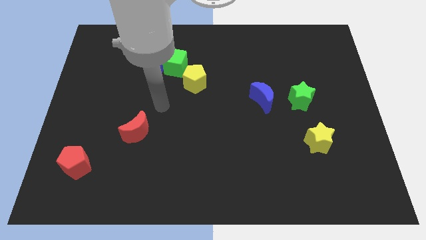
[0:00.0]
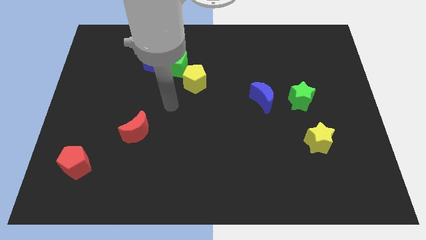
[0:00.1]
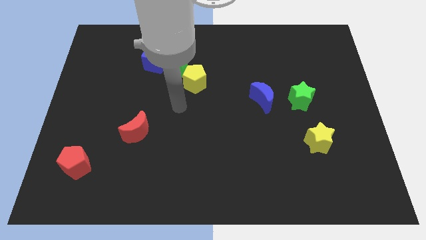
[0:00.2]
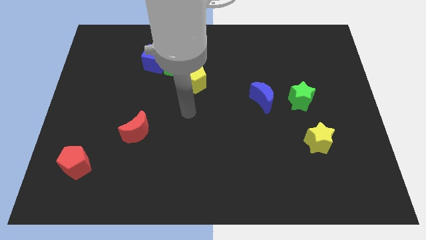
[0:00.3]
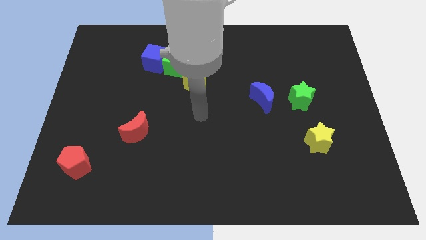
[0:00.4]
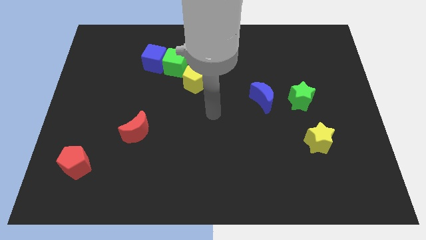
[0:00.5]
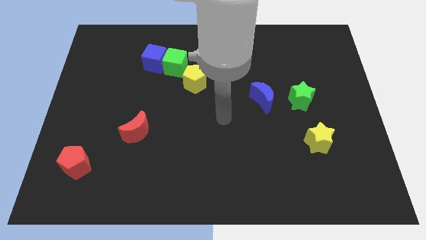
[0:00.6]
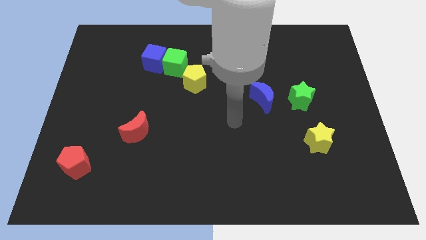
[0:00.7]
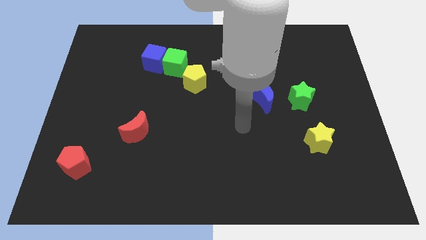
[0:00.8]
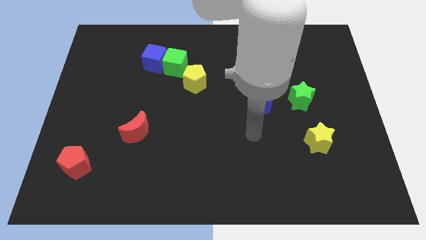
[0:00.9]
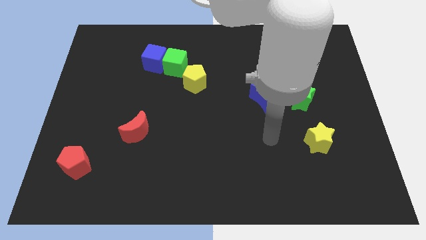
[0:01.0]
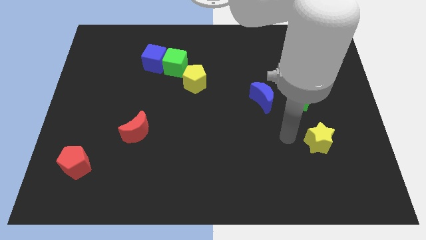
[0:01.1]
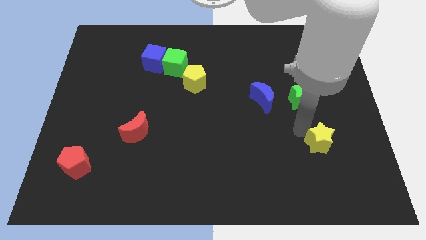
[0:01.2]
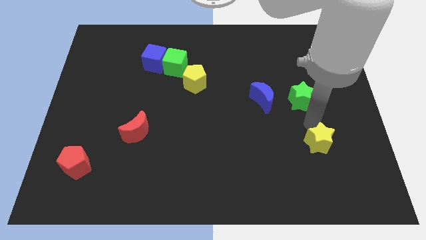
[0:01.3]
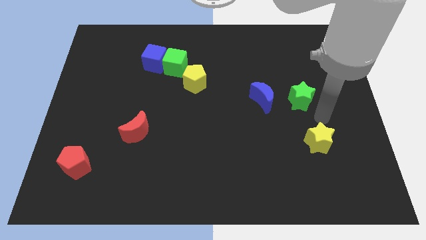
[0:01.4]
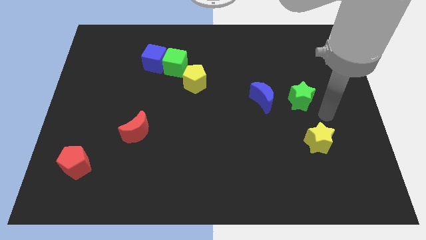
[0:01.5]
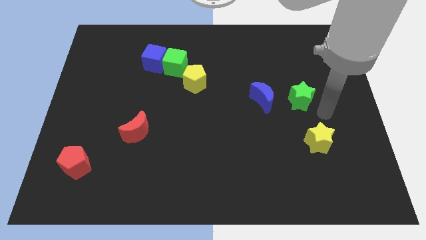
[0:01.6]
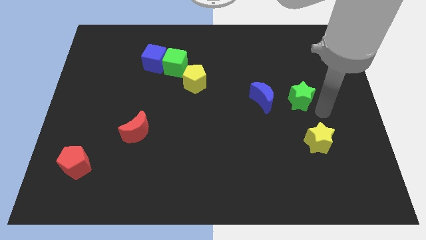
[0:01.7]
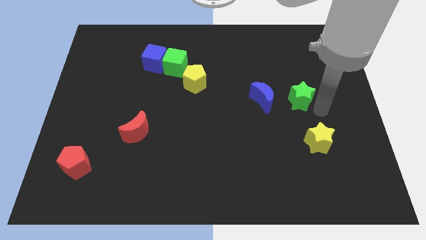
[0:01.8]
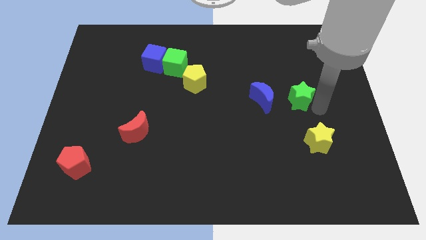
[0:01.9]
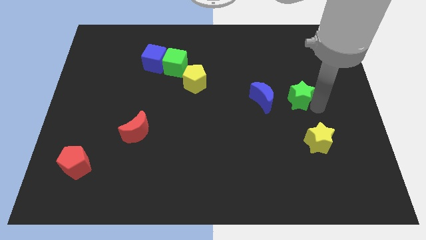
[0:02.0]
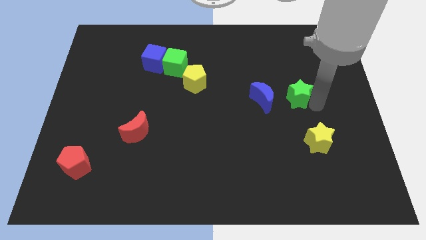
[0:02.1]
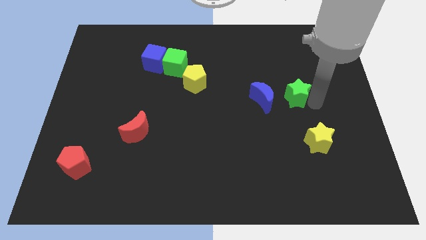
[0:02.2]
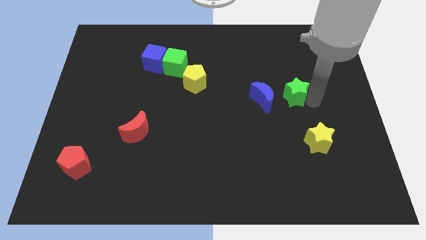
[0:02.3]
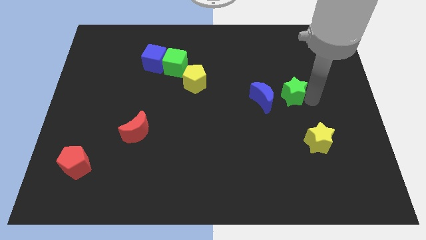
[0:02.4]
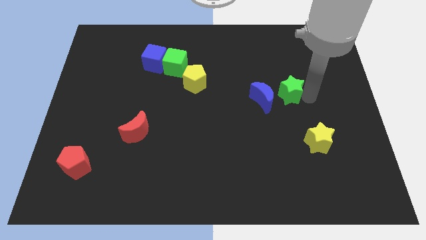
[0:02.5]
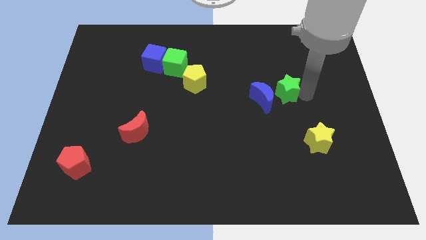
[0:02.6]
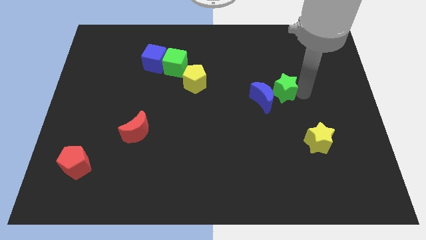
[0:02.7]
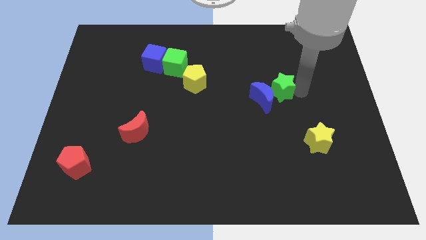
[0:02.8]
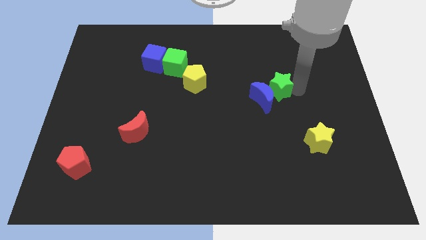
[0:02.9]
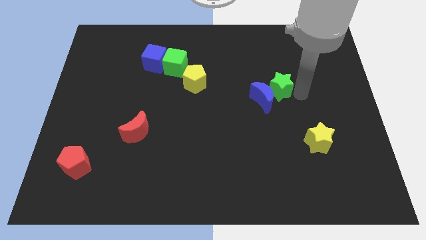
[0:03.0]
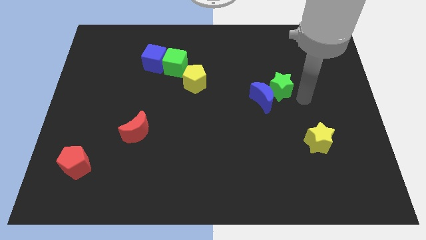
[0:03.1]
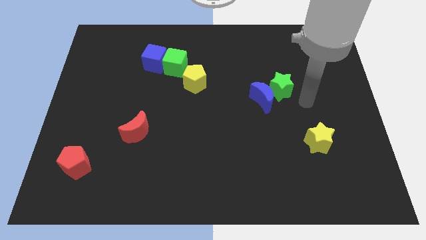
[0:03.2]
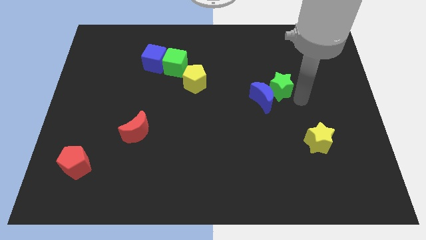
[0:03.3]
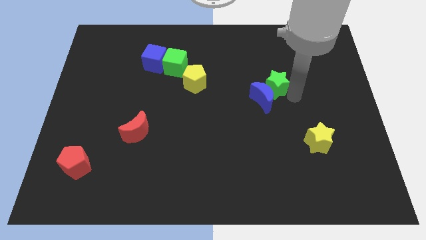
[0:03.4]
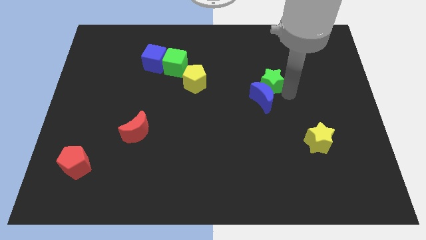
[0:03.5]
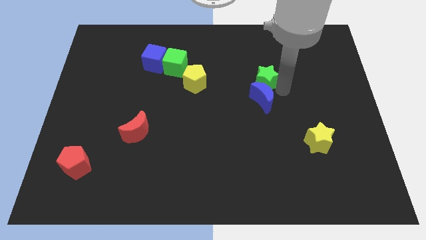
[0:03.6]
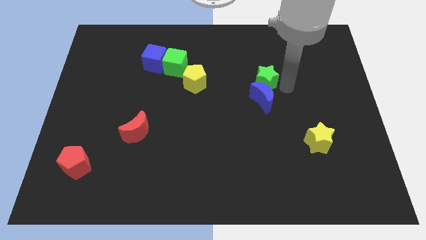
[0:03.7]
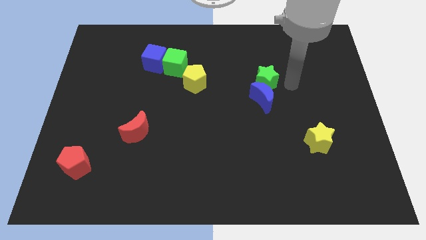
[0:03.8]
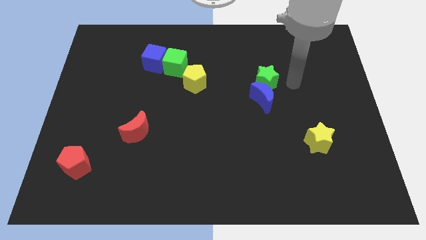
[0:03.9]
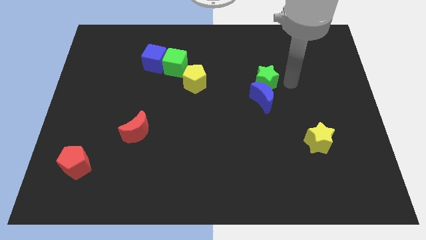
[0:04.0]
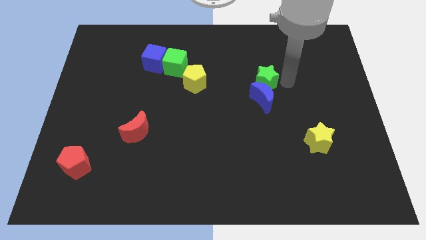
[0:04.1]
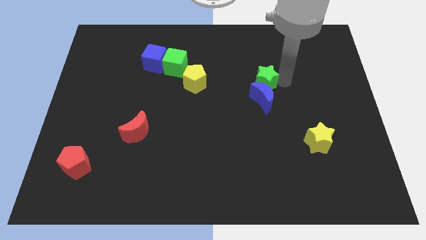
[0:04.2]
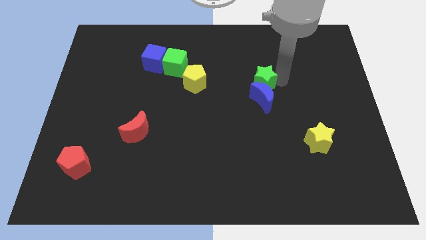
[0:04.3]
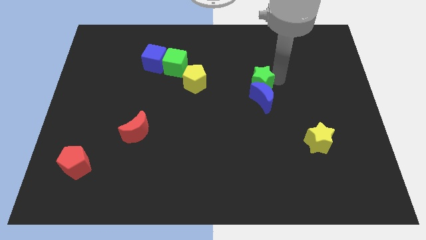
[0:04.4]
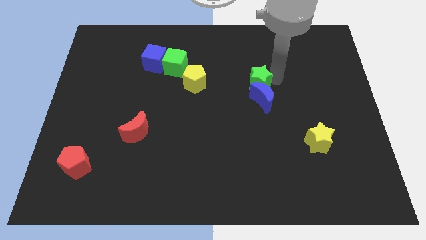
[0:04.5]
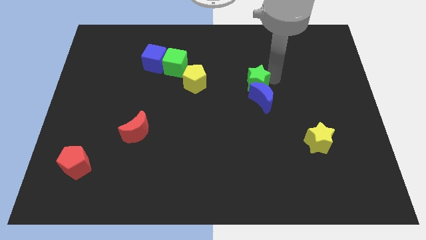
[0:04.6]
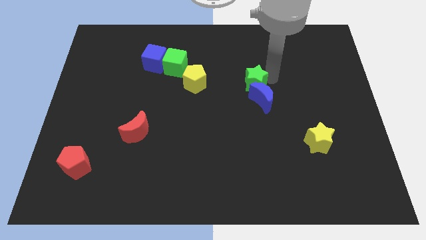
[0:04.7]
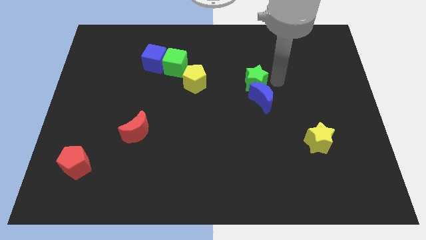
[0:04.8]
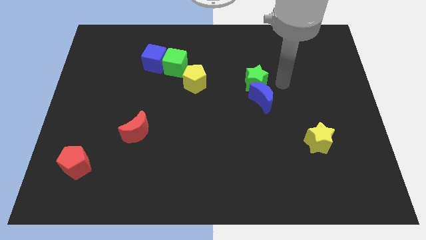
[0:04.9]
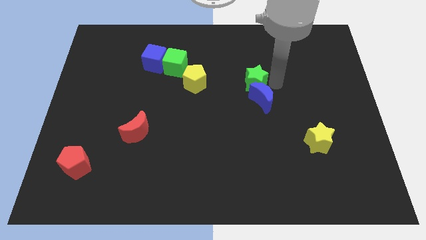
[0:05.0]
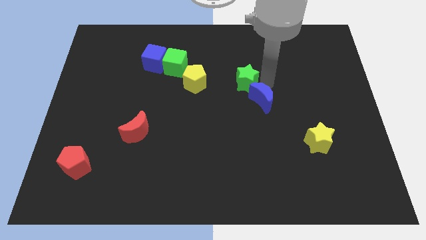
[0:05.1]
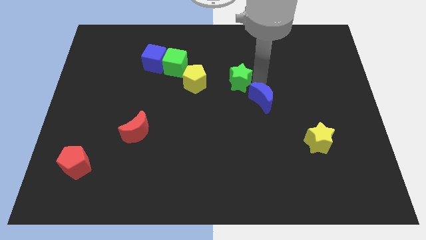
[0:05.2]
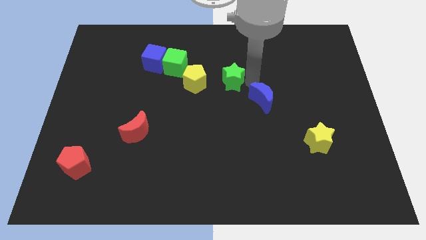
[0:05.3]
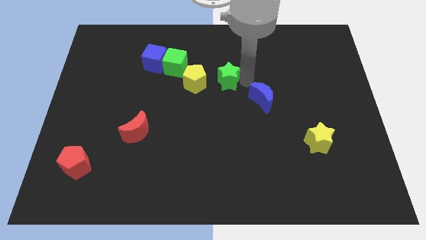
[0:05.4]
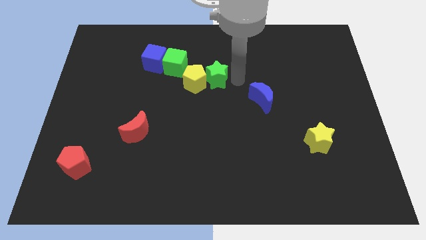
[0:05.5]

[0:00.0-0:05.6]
move the green star next to the yellow pentagon

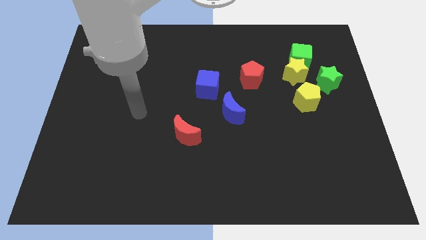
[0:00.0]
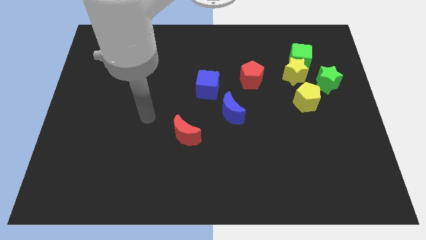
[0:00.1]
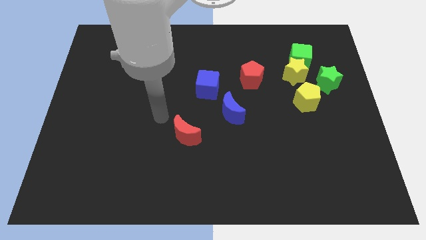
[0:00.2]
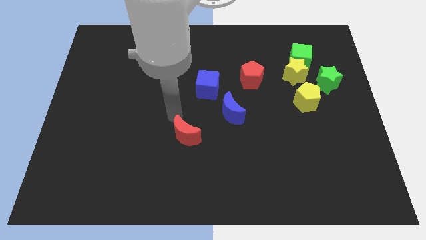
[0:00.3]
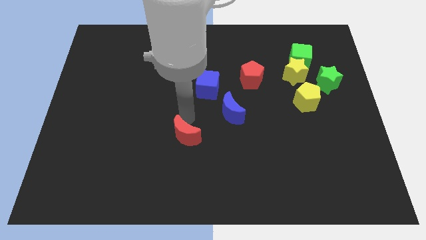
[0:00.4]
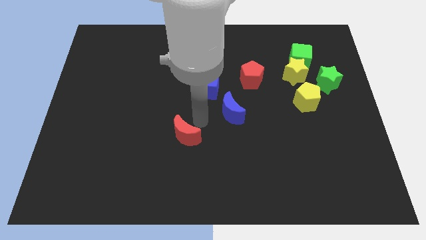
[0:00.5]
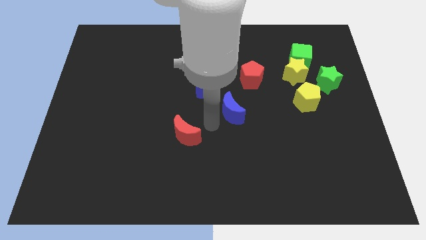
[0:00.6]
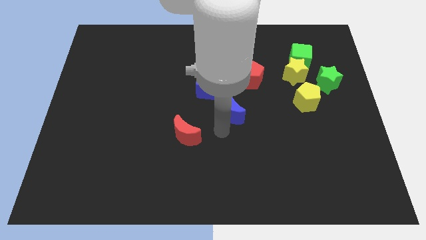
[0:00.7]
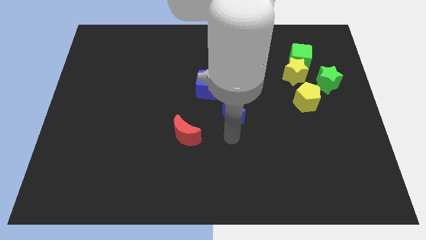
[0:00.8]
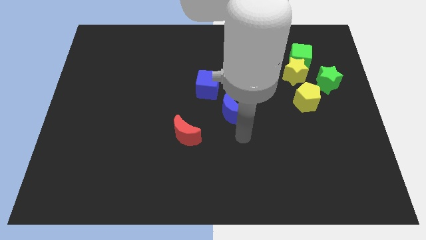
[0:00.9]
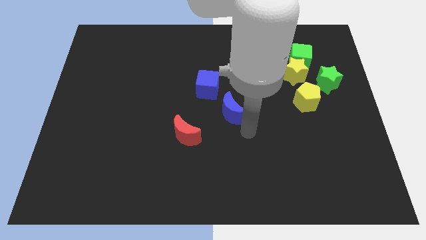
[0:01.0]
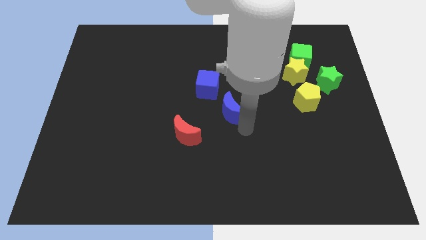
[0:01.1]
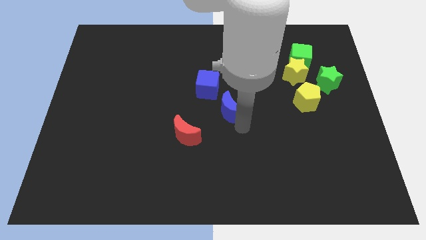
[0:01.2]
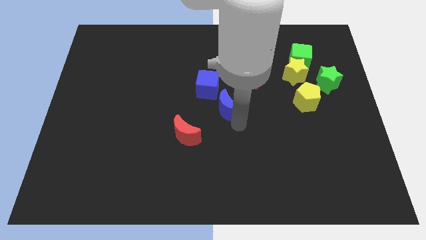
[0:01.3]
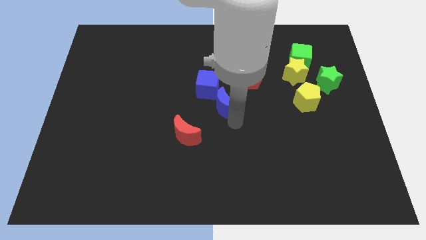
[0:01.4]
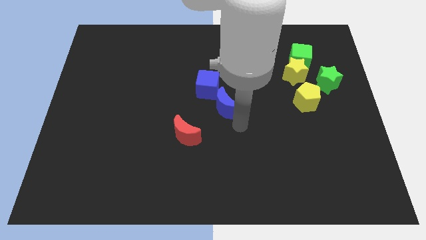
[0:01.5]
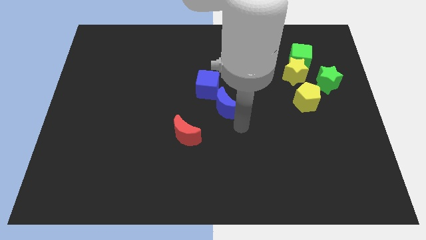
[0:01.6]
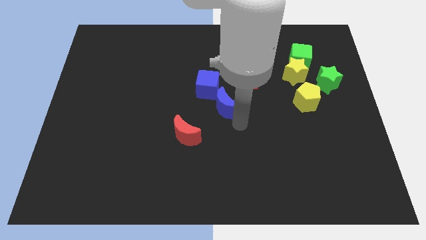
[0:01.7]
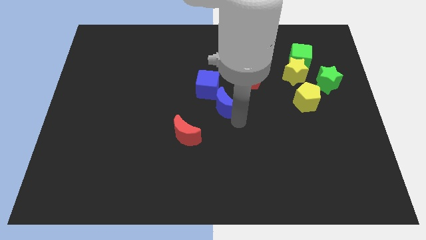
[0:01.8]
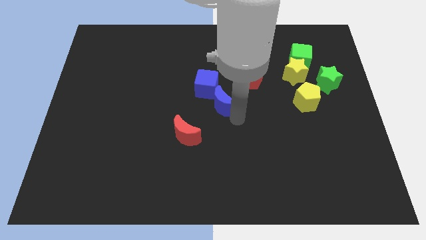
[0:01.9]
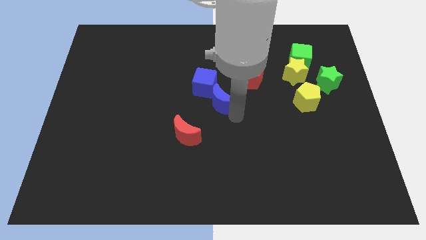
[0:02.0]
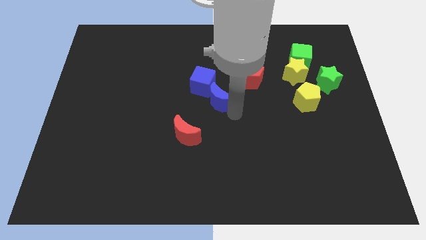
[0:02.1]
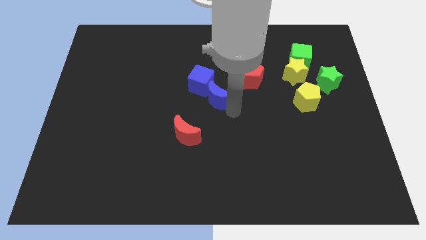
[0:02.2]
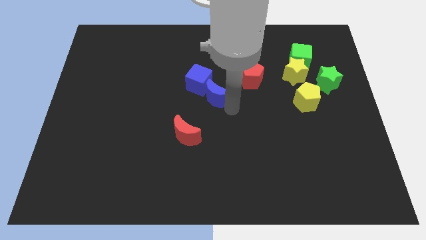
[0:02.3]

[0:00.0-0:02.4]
move the blue moon towards the blue cube

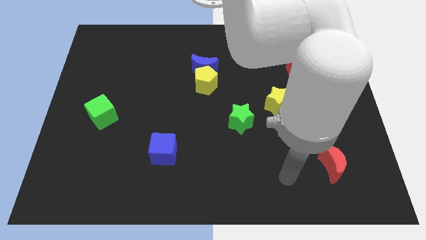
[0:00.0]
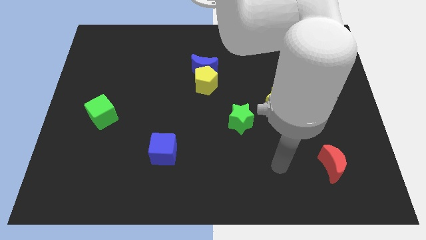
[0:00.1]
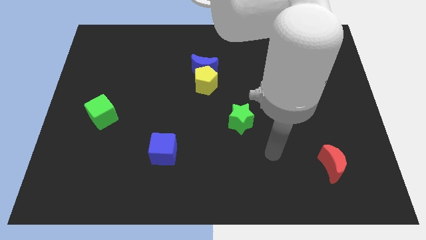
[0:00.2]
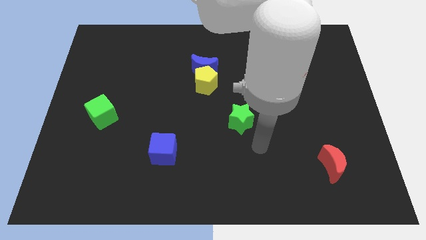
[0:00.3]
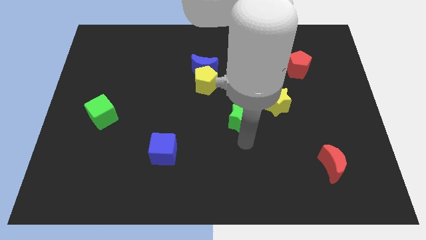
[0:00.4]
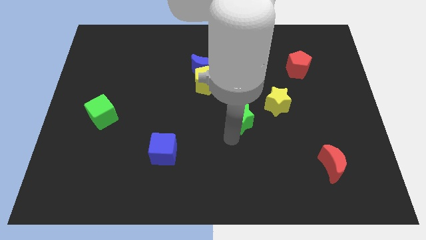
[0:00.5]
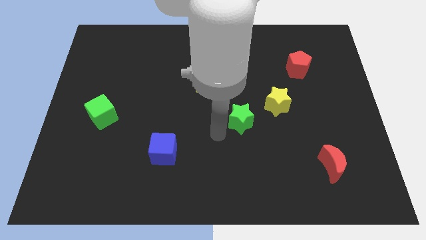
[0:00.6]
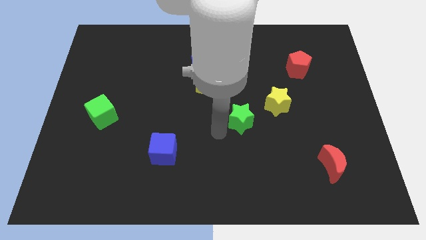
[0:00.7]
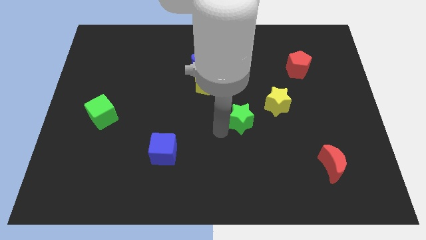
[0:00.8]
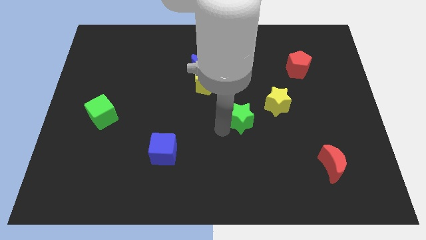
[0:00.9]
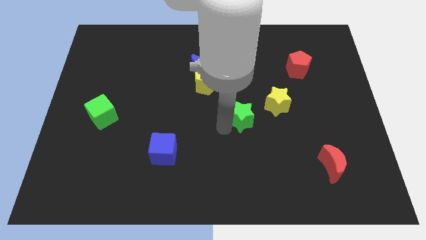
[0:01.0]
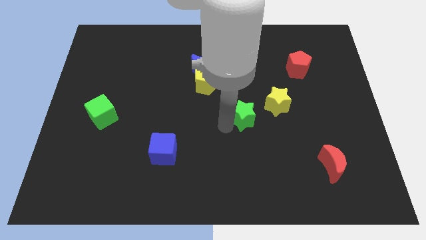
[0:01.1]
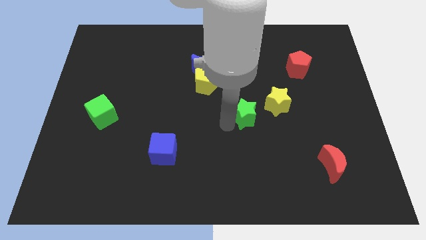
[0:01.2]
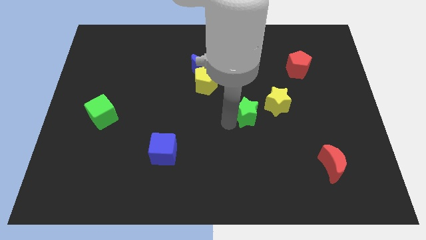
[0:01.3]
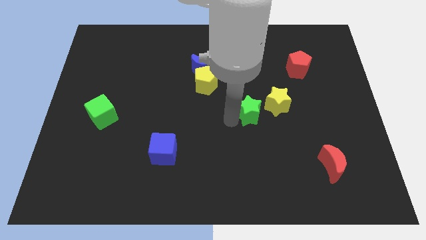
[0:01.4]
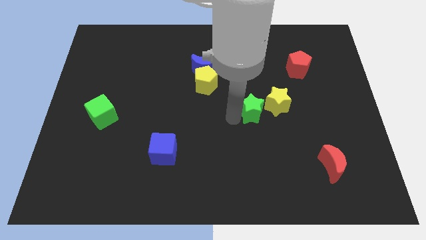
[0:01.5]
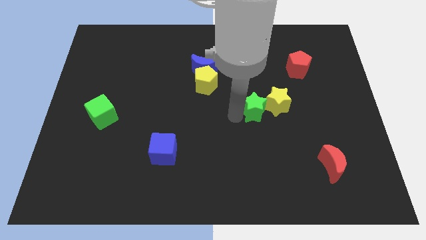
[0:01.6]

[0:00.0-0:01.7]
move the green star close to the yellow star
